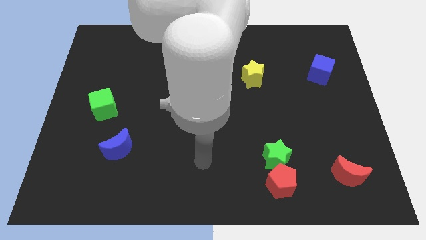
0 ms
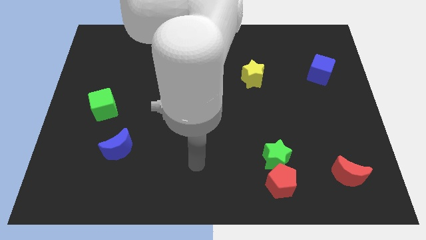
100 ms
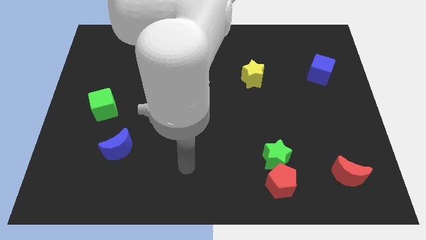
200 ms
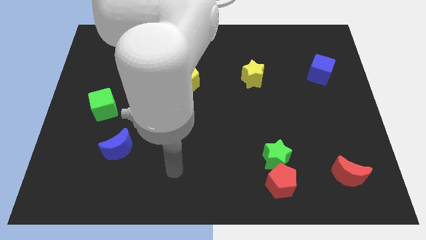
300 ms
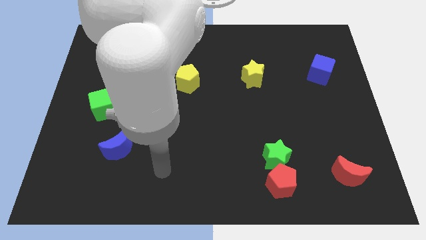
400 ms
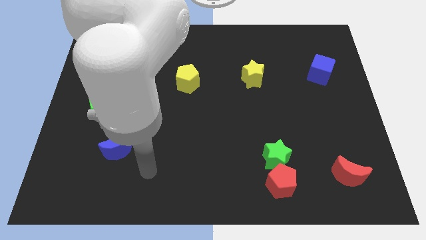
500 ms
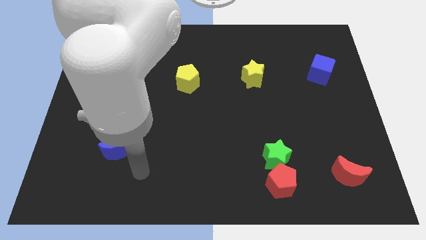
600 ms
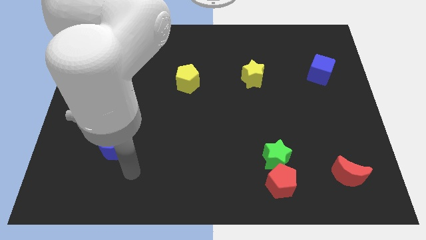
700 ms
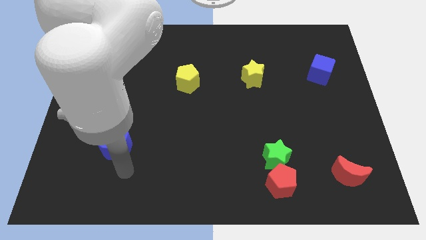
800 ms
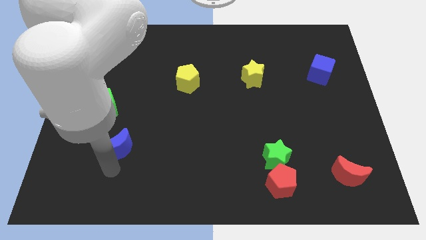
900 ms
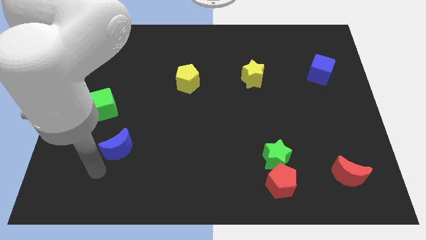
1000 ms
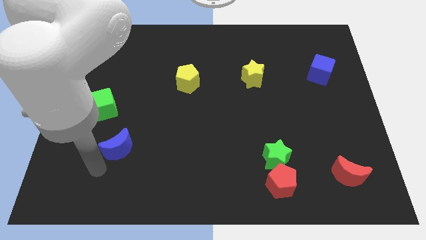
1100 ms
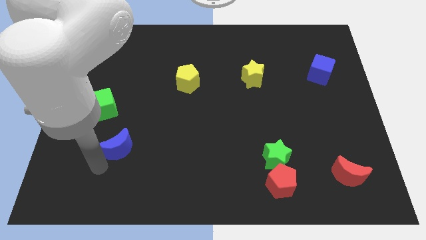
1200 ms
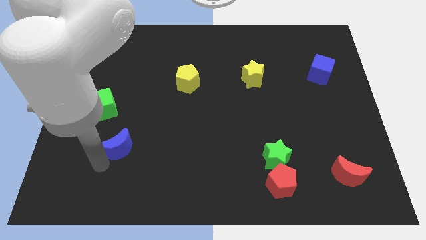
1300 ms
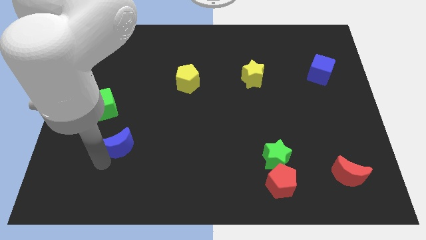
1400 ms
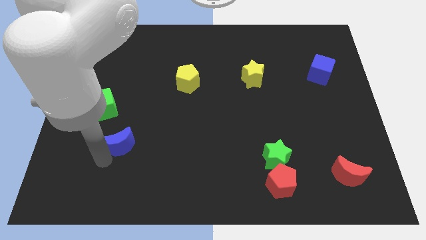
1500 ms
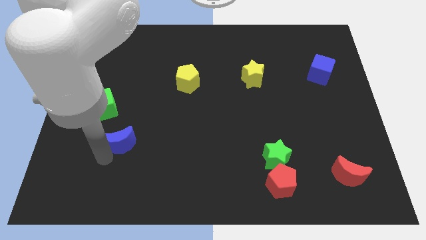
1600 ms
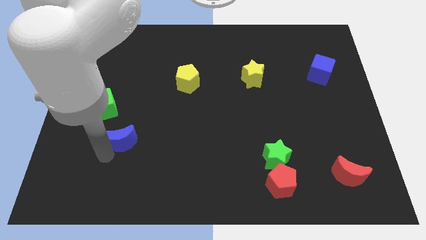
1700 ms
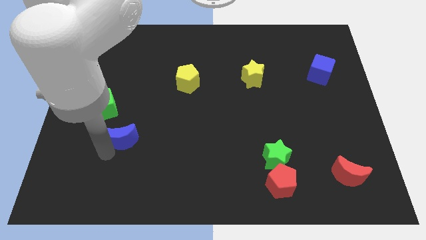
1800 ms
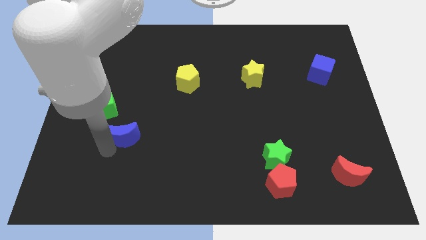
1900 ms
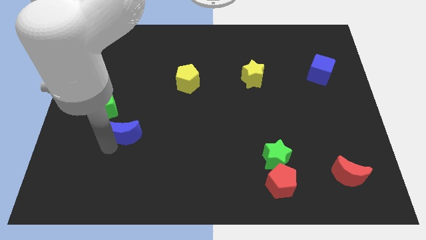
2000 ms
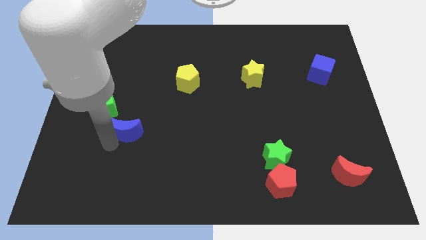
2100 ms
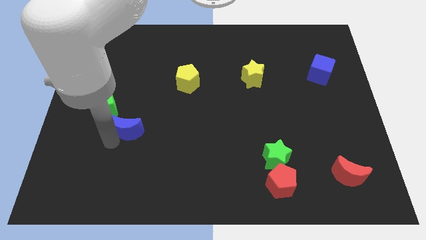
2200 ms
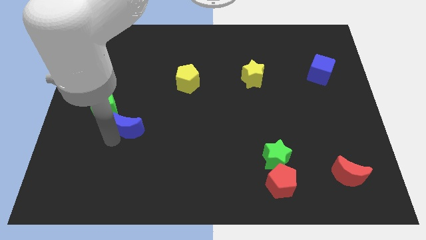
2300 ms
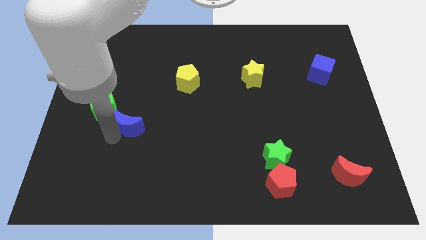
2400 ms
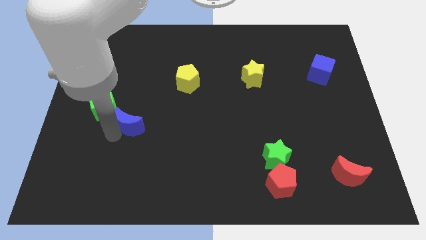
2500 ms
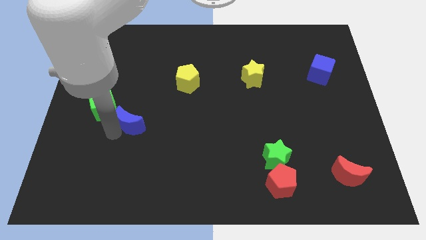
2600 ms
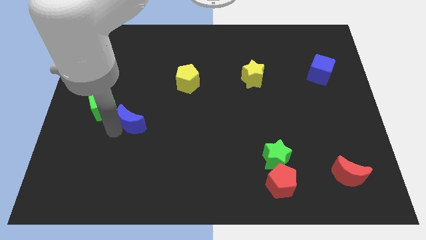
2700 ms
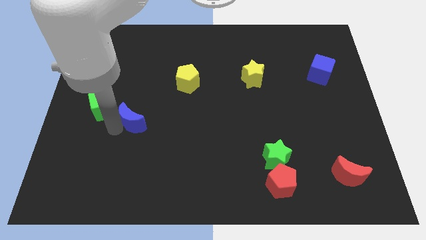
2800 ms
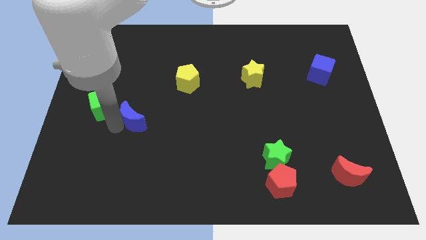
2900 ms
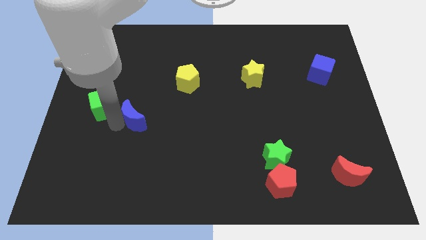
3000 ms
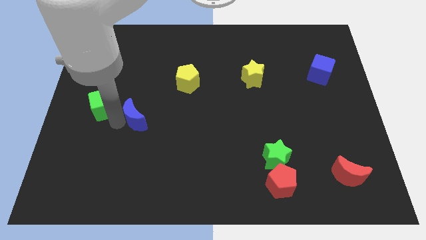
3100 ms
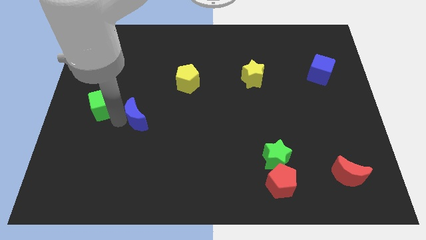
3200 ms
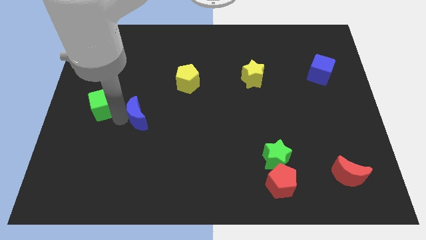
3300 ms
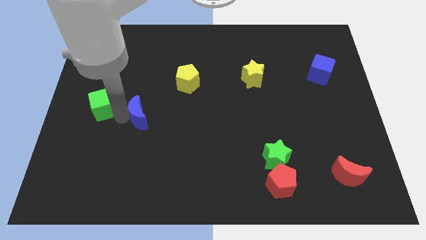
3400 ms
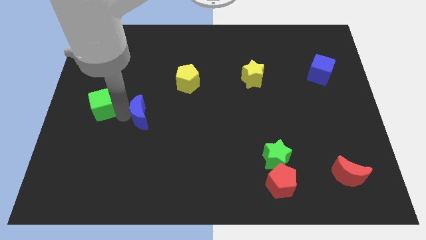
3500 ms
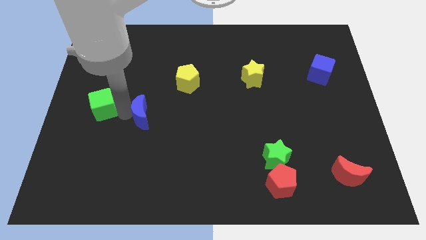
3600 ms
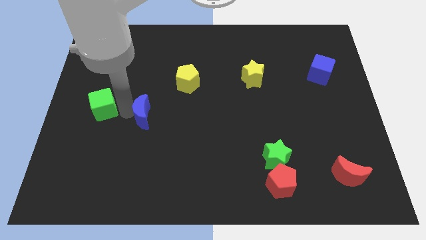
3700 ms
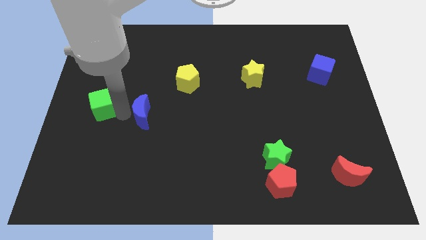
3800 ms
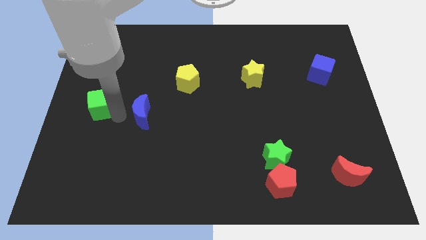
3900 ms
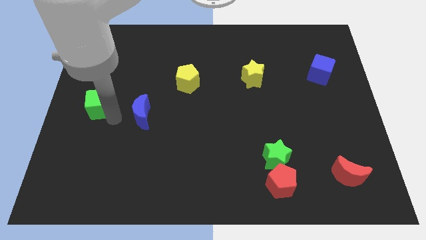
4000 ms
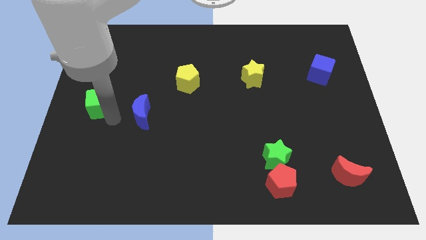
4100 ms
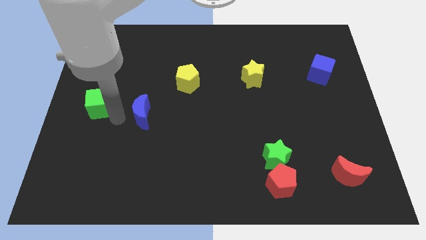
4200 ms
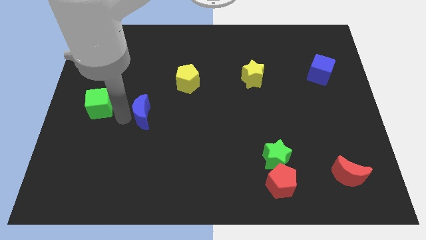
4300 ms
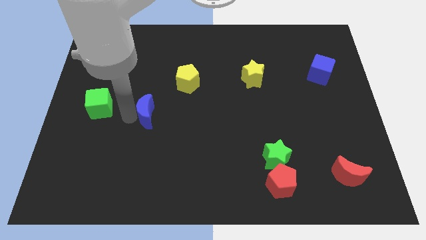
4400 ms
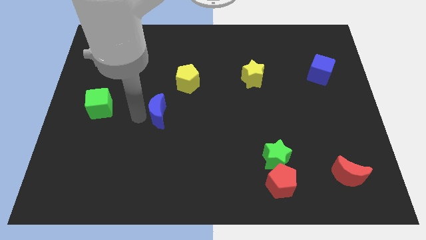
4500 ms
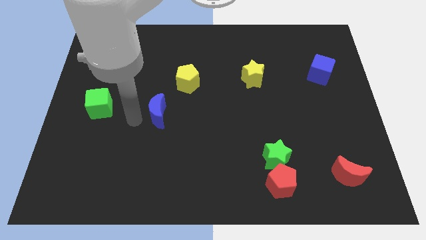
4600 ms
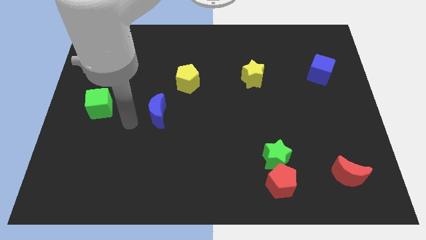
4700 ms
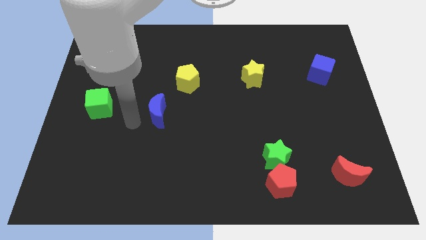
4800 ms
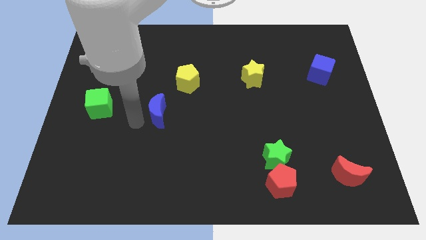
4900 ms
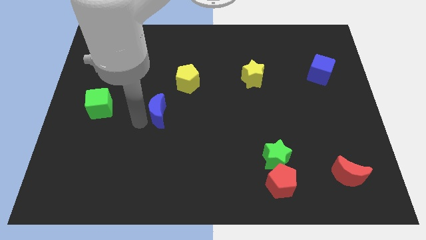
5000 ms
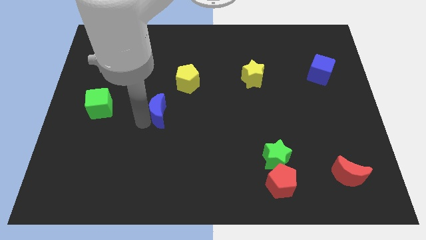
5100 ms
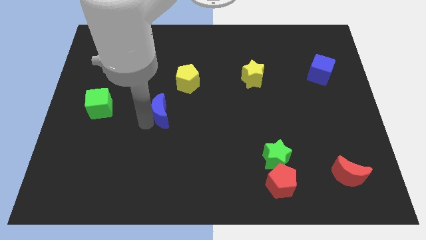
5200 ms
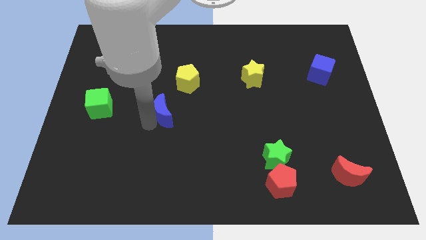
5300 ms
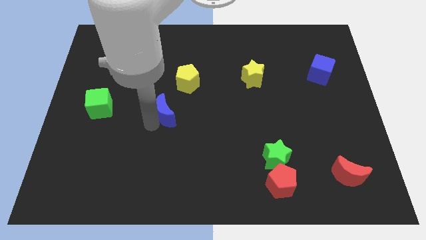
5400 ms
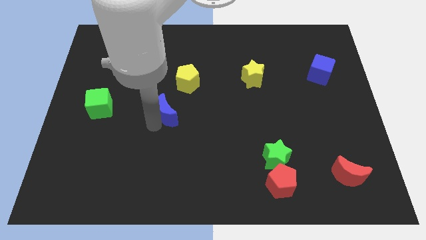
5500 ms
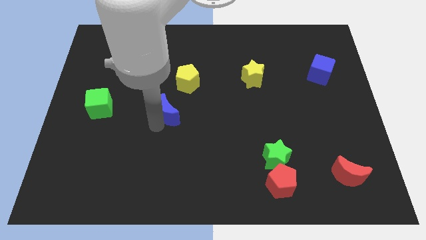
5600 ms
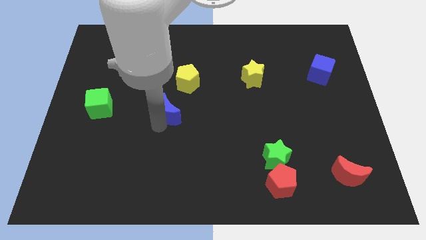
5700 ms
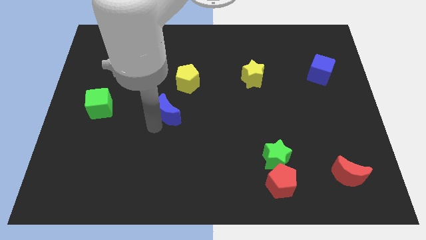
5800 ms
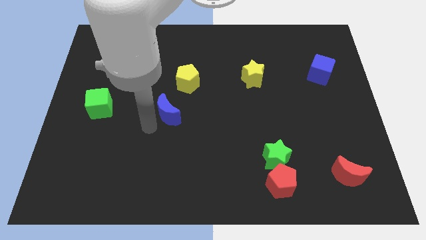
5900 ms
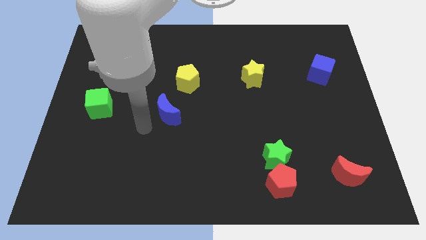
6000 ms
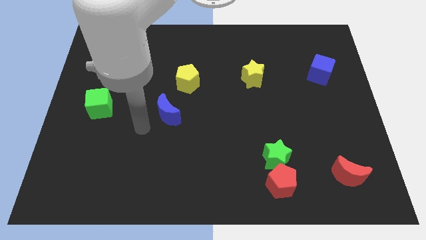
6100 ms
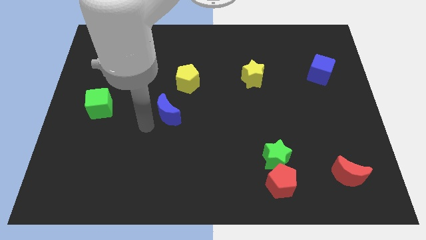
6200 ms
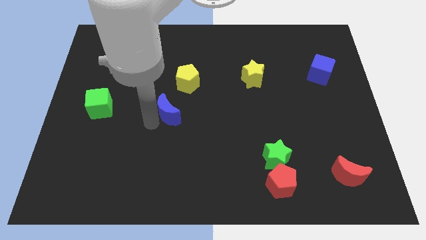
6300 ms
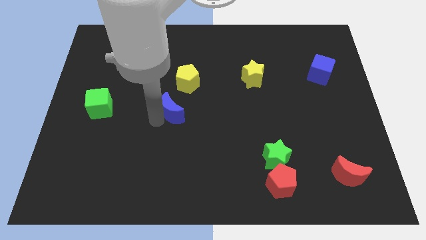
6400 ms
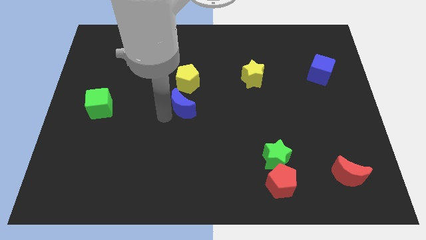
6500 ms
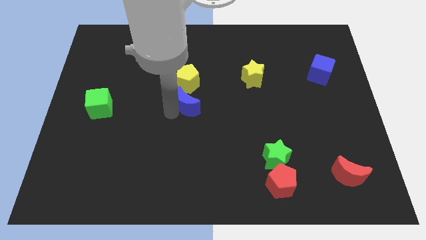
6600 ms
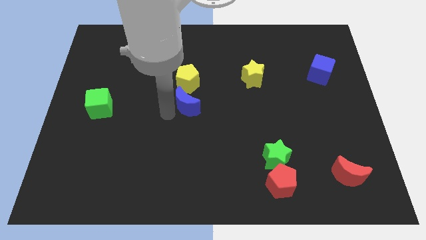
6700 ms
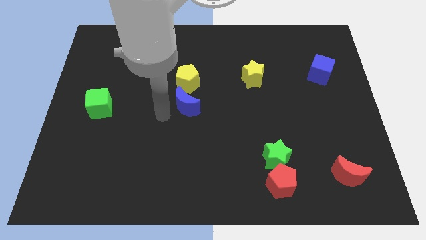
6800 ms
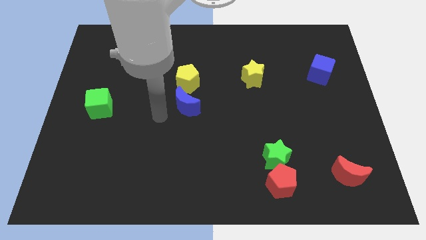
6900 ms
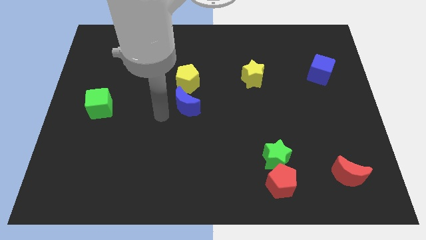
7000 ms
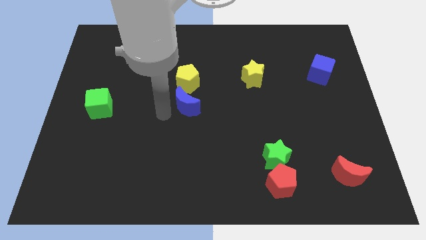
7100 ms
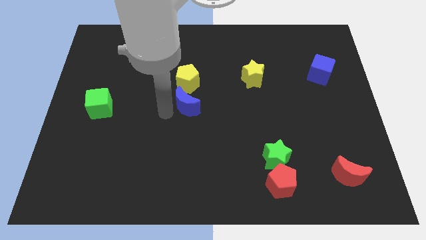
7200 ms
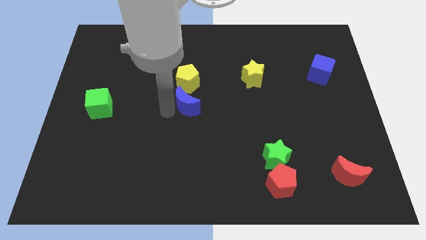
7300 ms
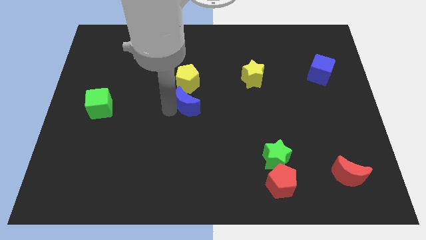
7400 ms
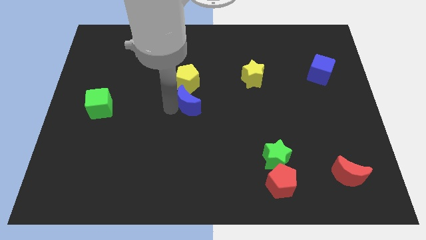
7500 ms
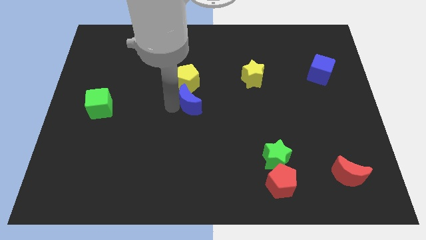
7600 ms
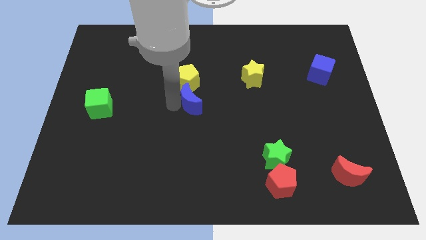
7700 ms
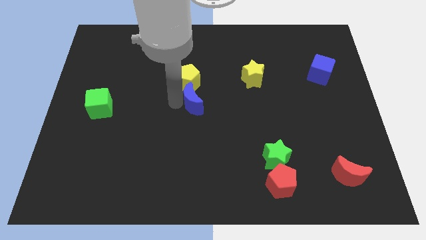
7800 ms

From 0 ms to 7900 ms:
push the blue moon up and to the right

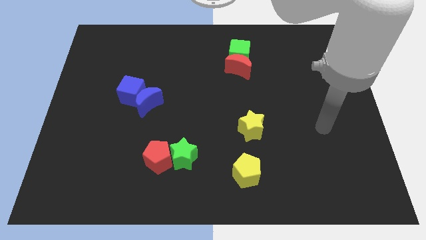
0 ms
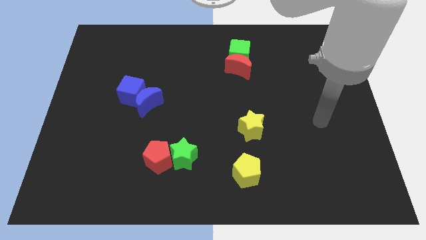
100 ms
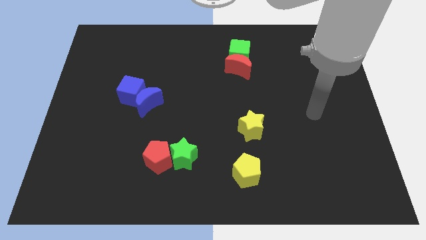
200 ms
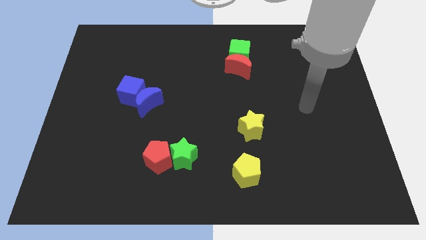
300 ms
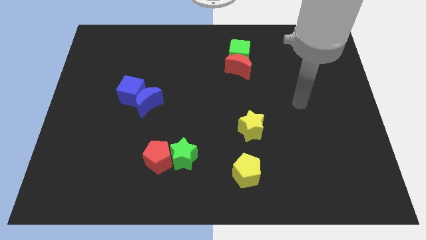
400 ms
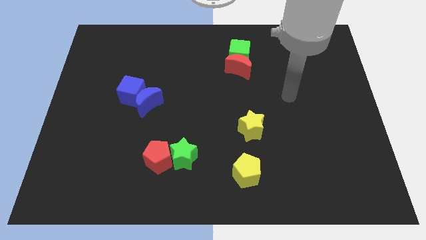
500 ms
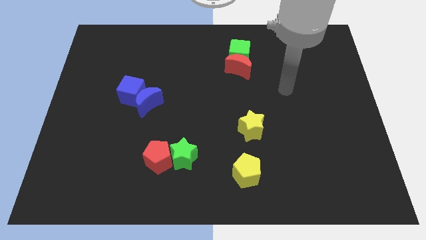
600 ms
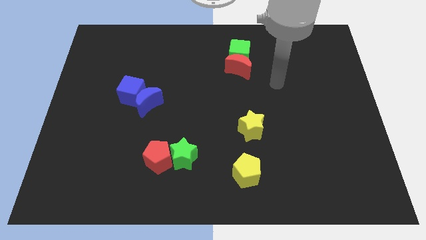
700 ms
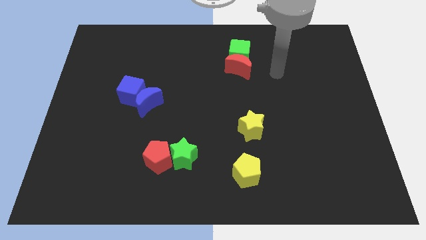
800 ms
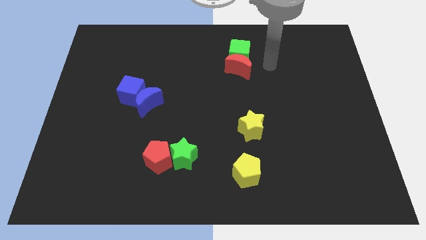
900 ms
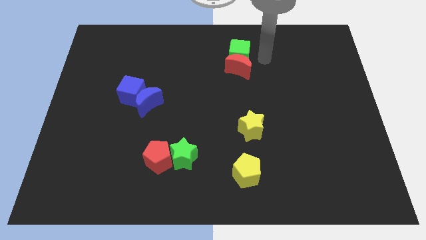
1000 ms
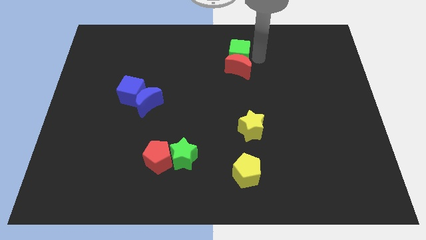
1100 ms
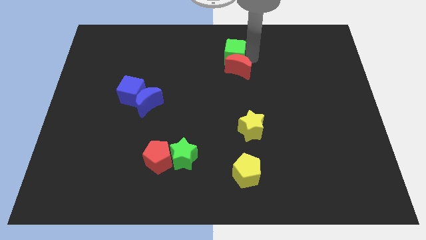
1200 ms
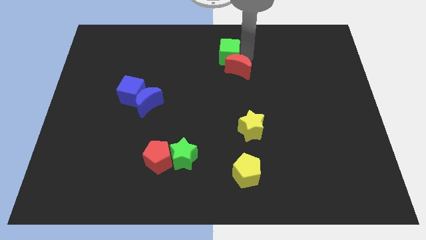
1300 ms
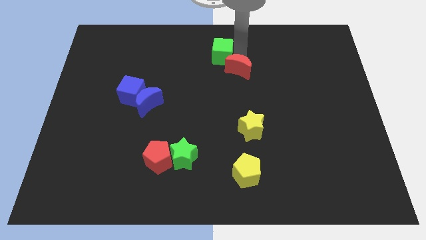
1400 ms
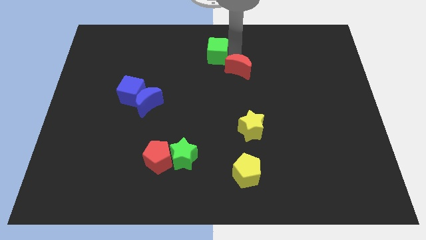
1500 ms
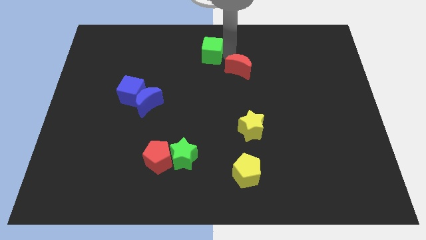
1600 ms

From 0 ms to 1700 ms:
push the green cube a little bit left
